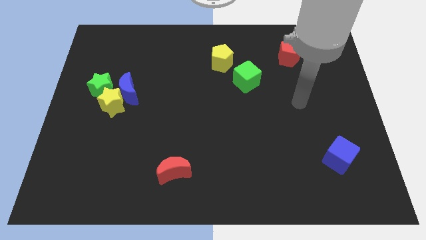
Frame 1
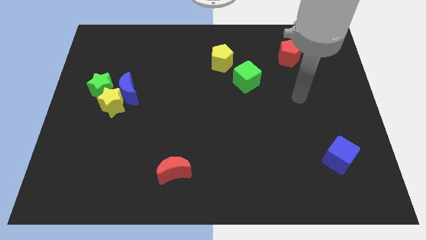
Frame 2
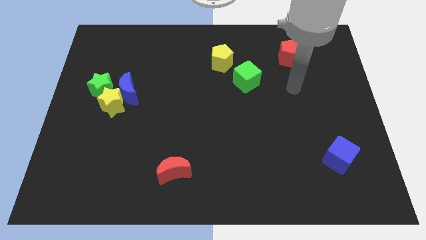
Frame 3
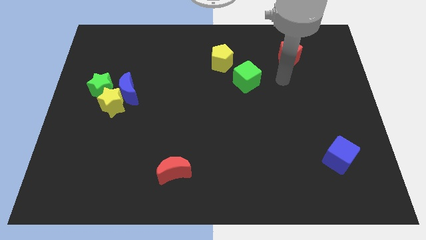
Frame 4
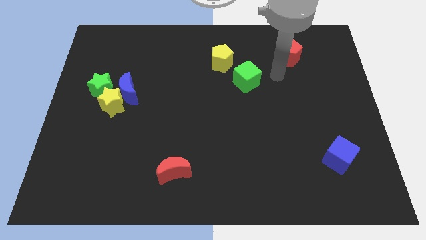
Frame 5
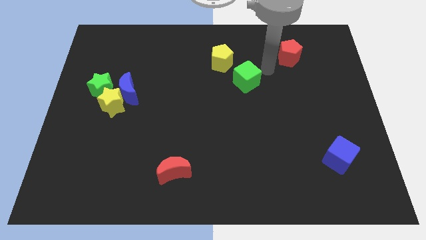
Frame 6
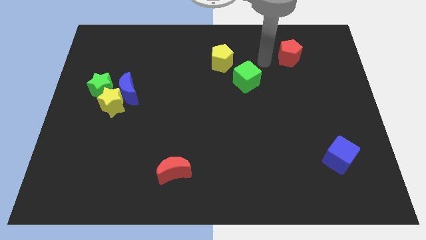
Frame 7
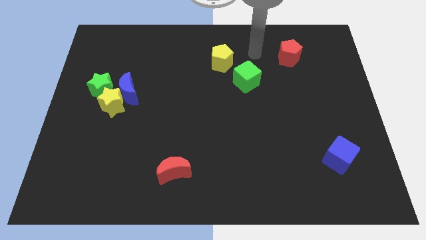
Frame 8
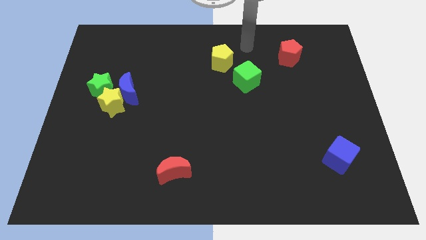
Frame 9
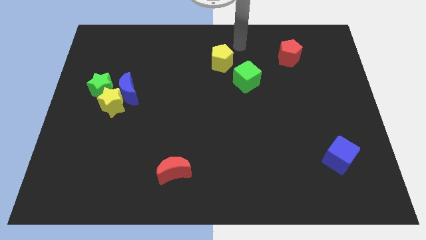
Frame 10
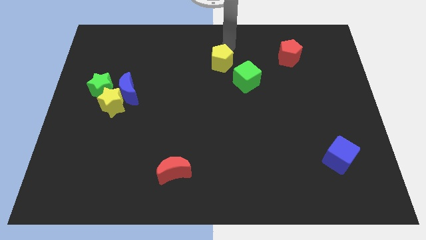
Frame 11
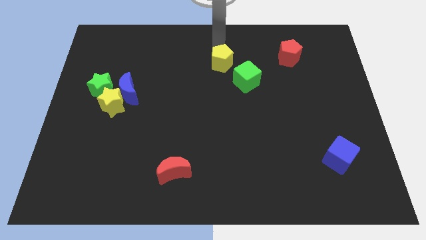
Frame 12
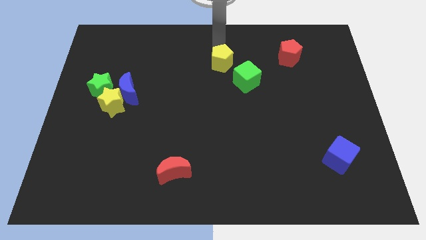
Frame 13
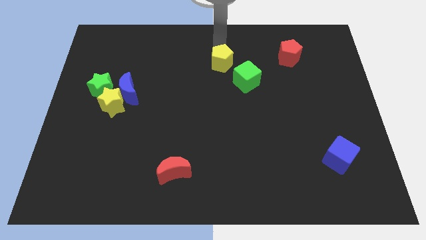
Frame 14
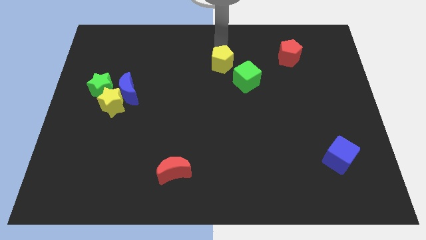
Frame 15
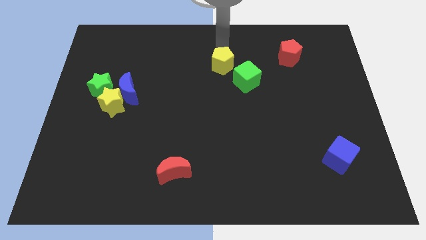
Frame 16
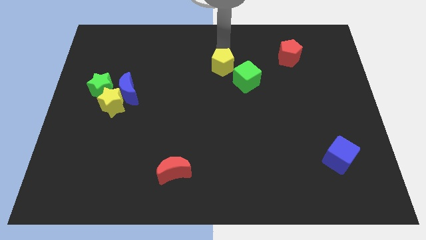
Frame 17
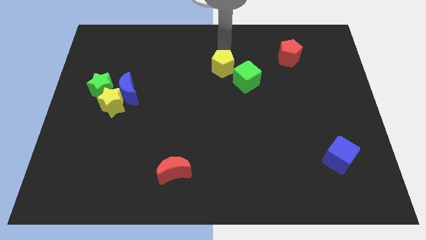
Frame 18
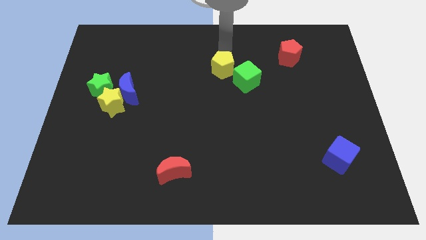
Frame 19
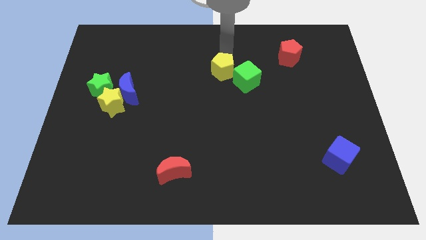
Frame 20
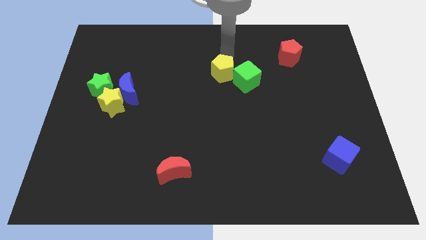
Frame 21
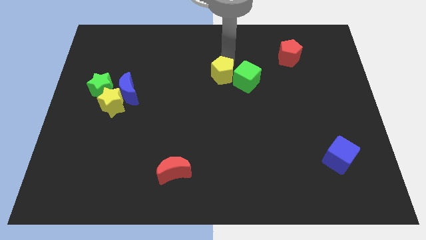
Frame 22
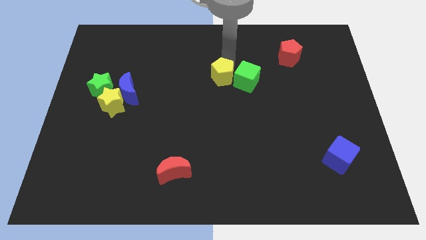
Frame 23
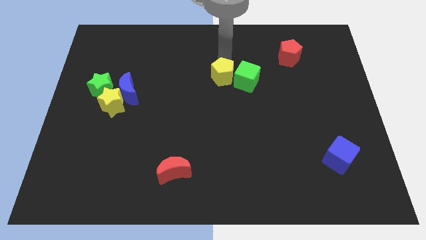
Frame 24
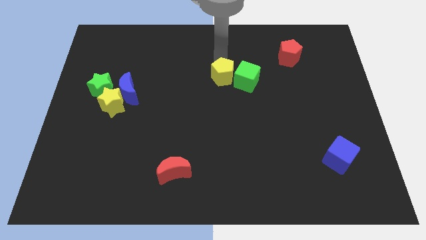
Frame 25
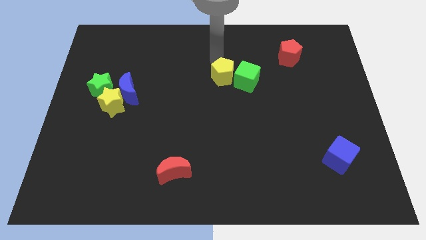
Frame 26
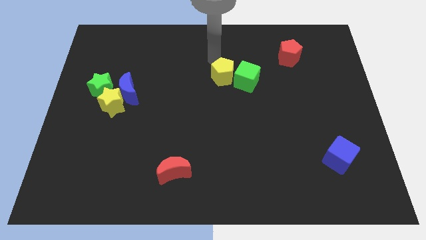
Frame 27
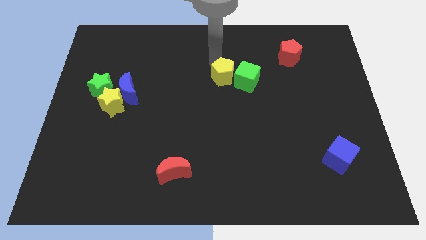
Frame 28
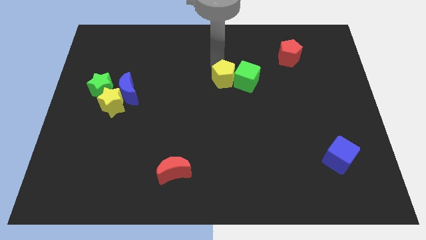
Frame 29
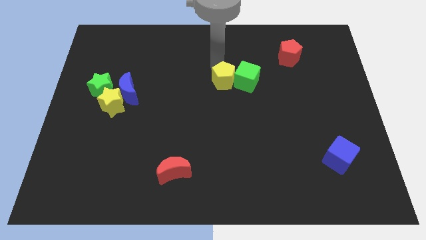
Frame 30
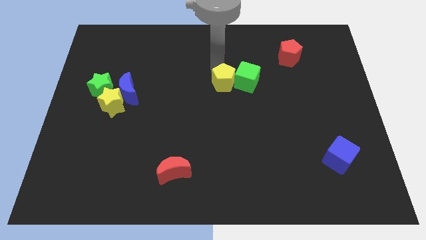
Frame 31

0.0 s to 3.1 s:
move the yellow pentagon slightly downwards

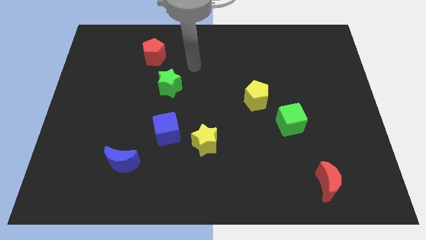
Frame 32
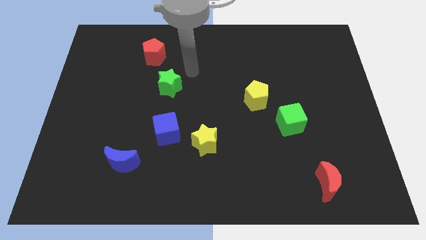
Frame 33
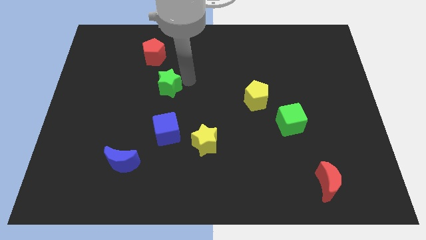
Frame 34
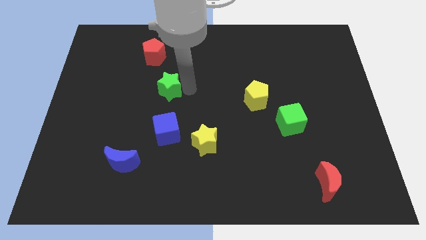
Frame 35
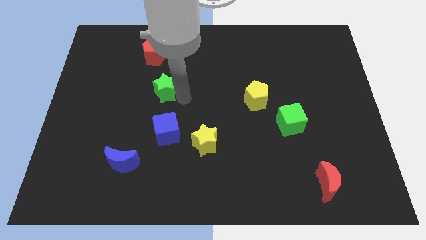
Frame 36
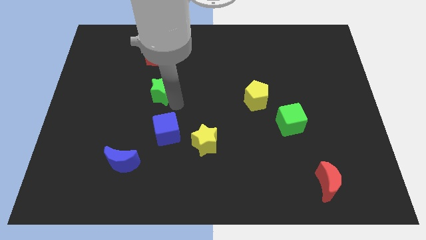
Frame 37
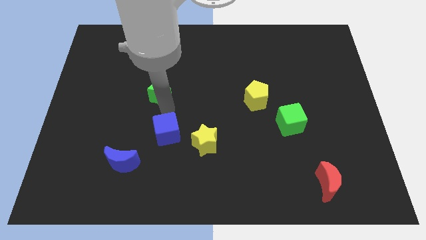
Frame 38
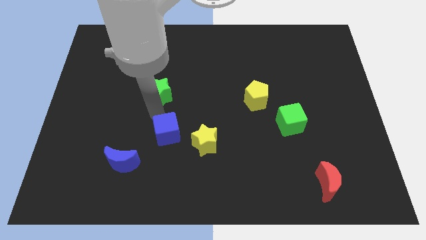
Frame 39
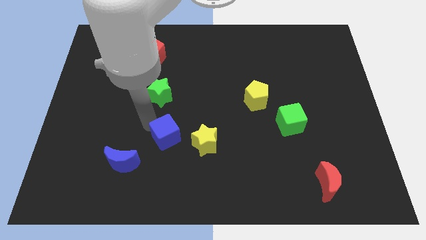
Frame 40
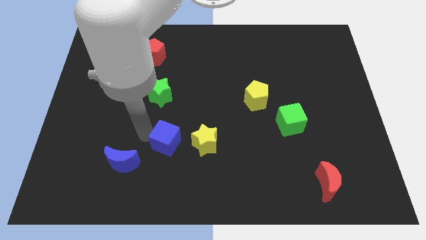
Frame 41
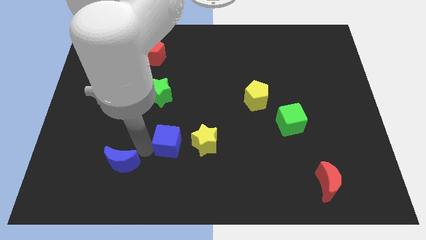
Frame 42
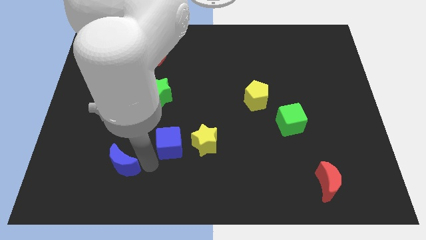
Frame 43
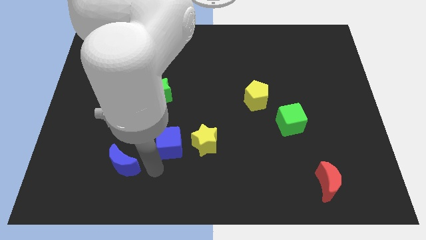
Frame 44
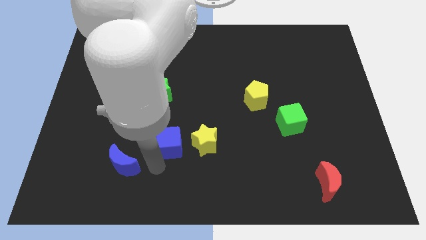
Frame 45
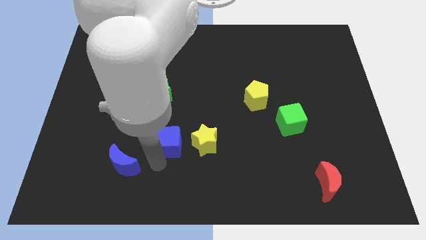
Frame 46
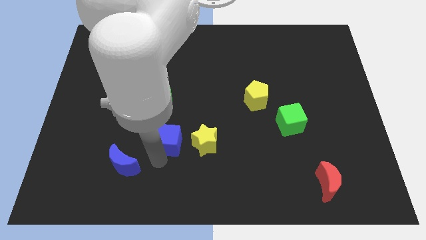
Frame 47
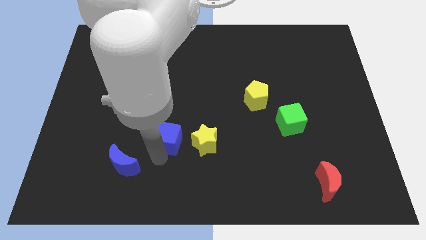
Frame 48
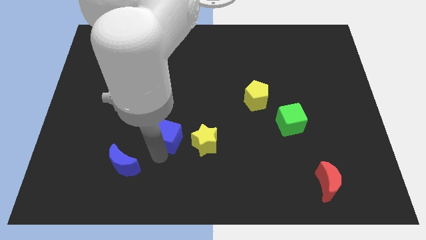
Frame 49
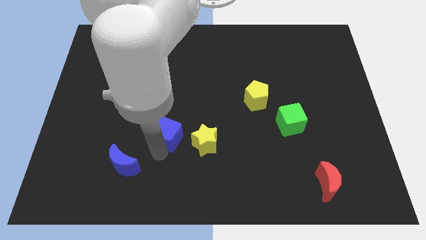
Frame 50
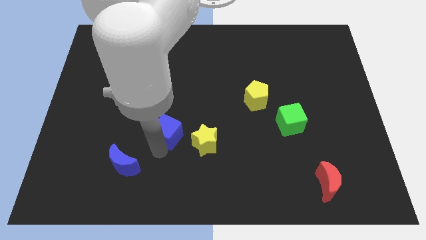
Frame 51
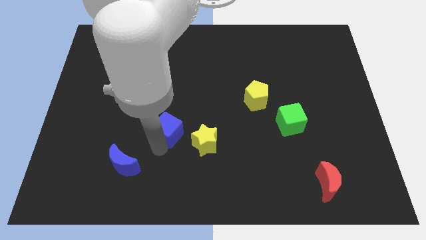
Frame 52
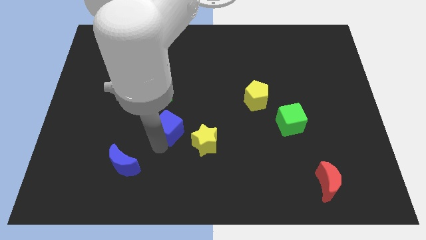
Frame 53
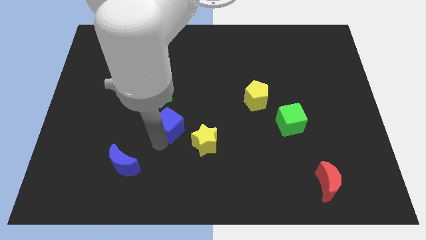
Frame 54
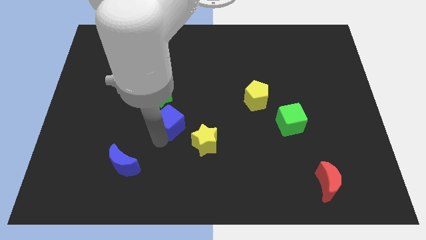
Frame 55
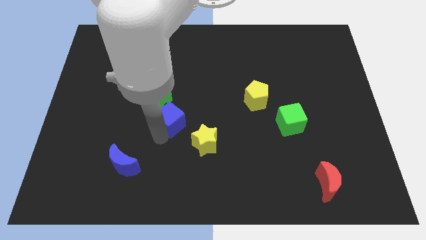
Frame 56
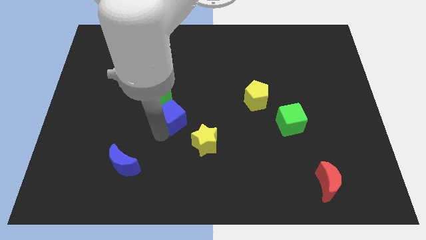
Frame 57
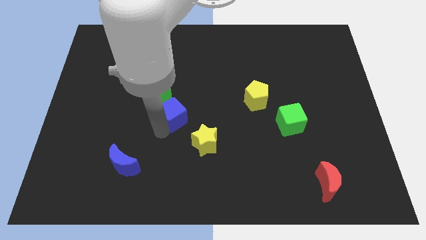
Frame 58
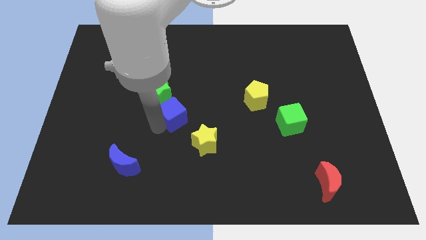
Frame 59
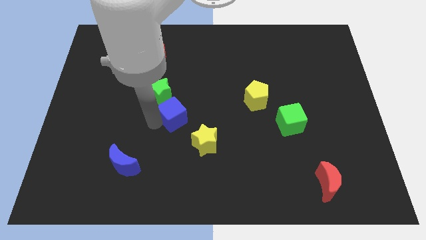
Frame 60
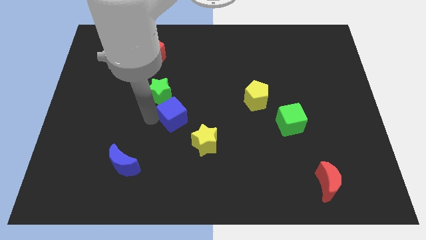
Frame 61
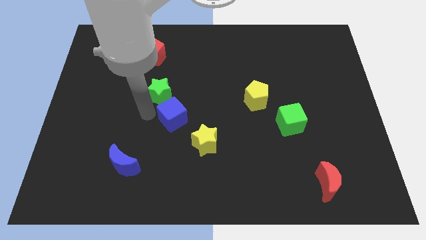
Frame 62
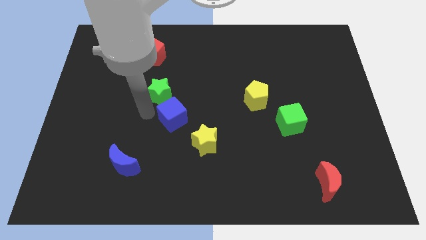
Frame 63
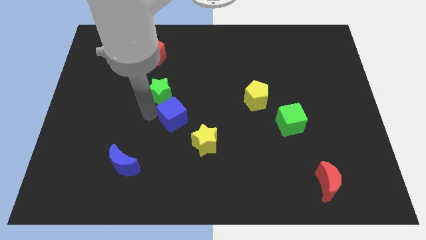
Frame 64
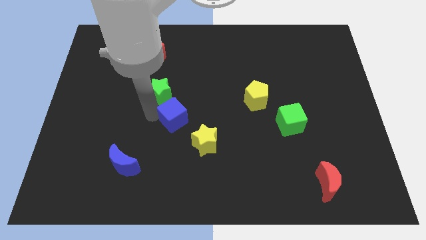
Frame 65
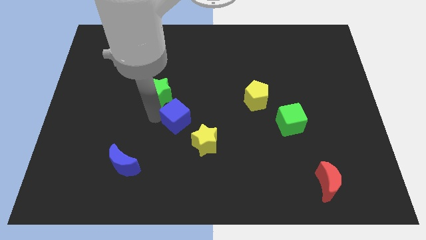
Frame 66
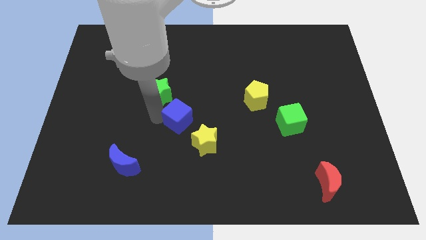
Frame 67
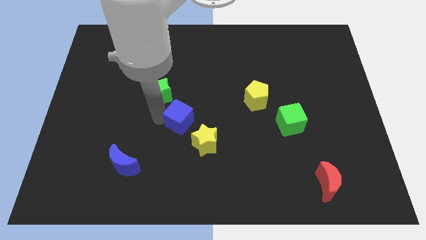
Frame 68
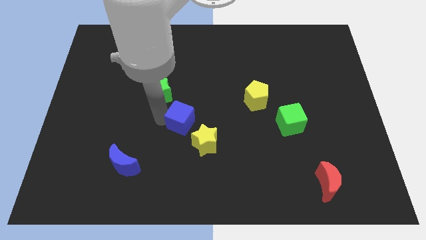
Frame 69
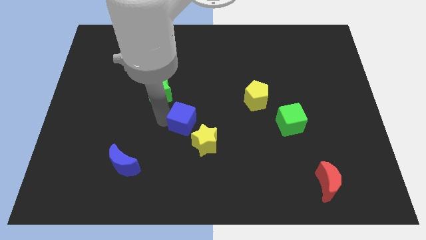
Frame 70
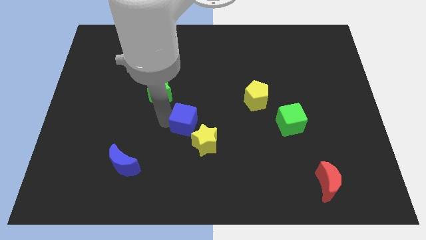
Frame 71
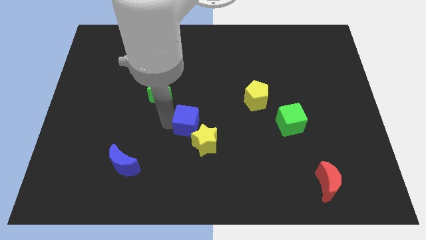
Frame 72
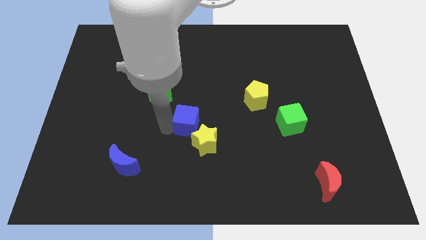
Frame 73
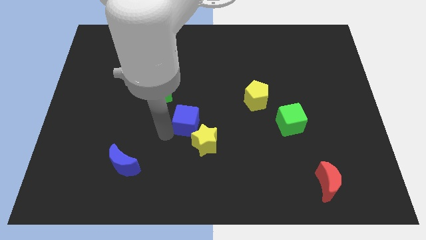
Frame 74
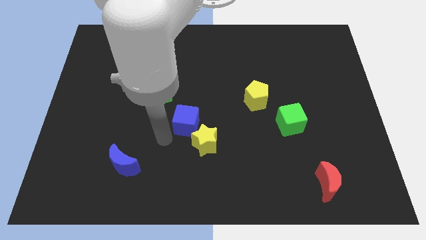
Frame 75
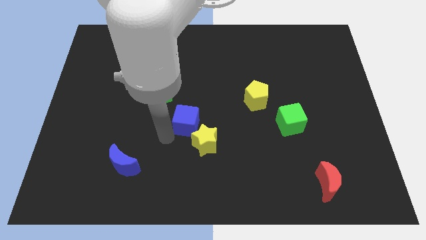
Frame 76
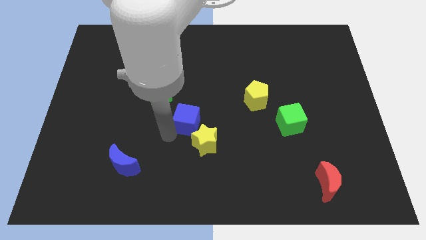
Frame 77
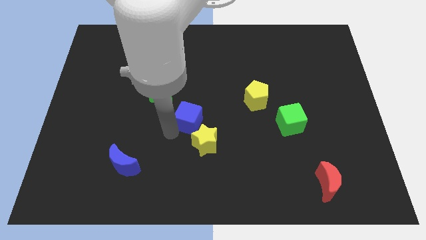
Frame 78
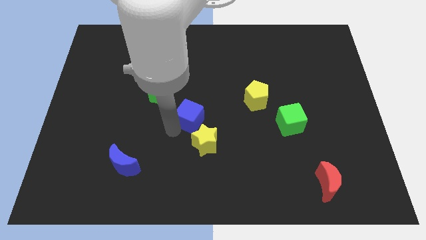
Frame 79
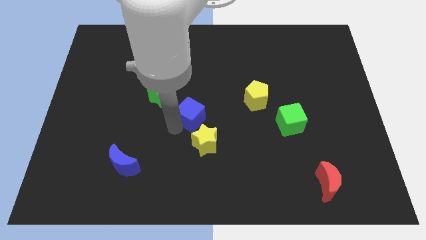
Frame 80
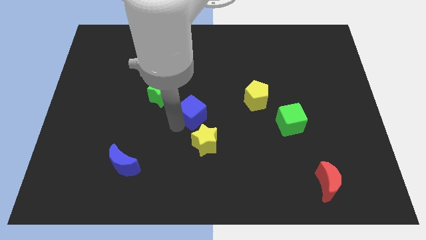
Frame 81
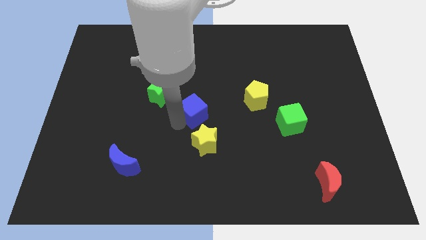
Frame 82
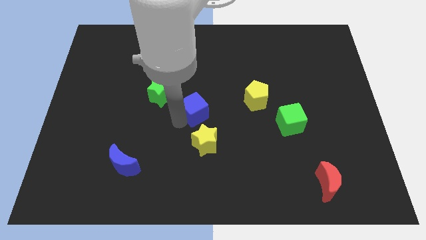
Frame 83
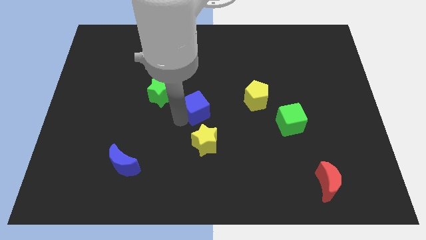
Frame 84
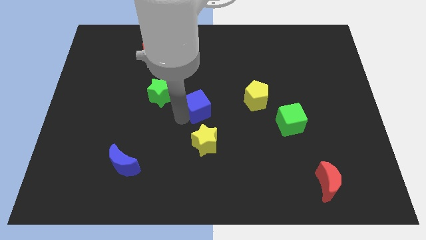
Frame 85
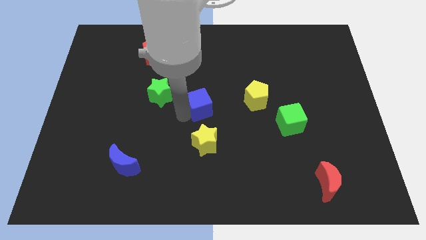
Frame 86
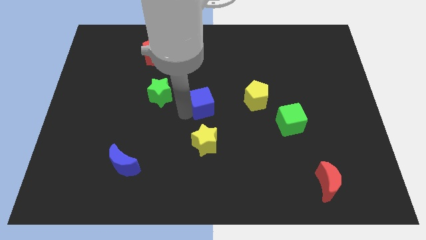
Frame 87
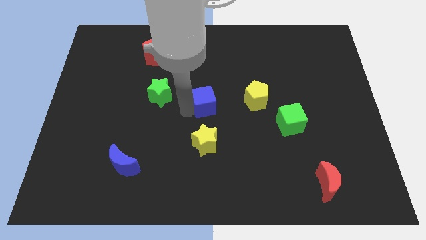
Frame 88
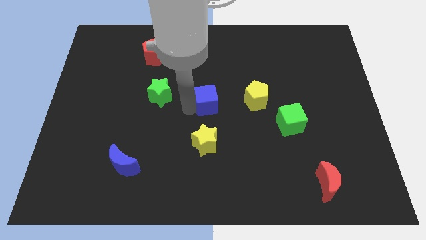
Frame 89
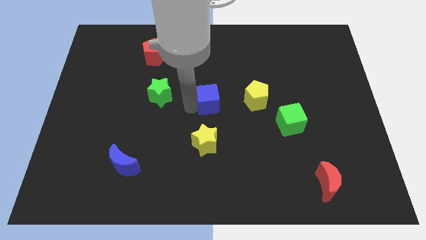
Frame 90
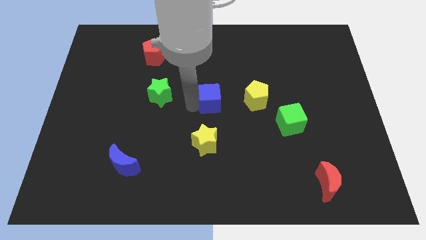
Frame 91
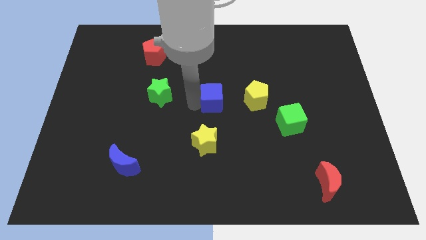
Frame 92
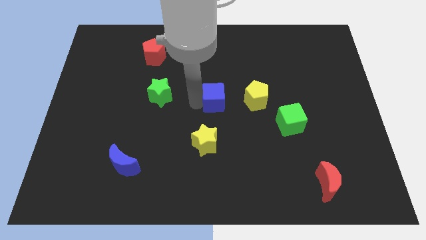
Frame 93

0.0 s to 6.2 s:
slightly move the blue cube right
